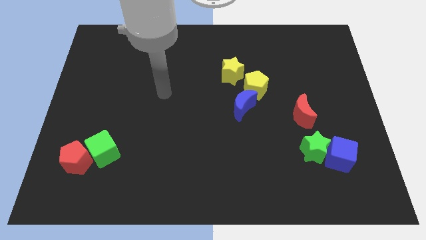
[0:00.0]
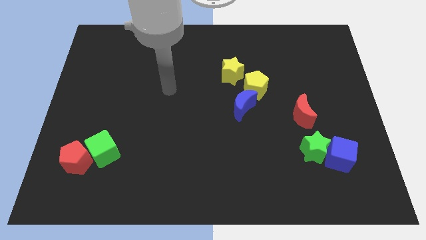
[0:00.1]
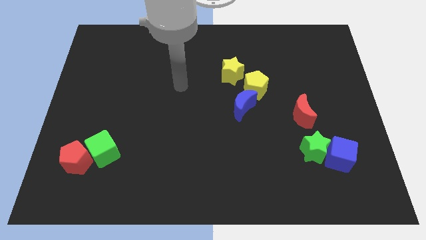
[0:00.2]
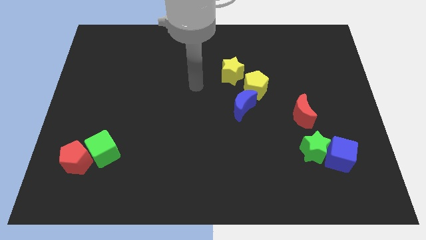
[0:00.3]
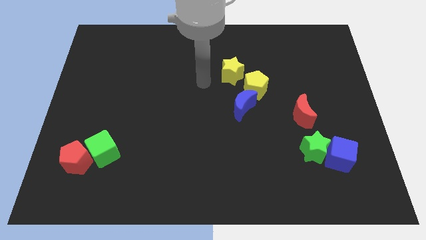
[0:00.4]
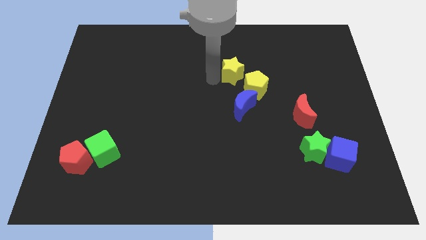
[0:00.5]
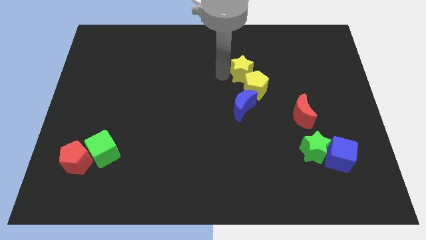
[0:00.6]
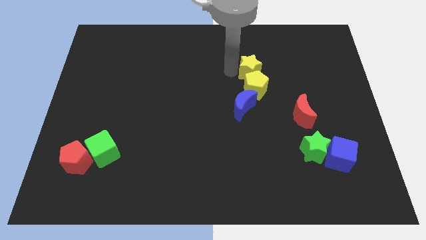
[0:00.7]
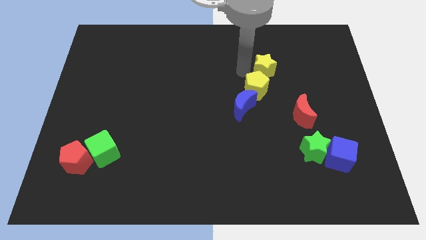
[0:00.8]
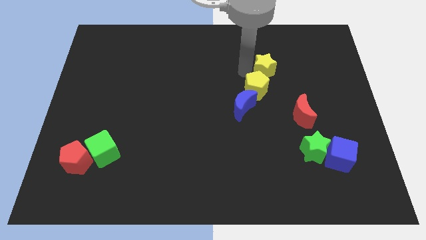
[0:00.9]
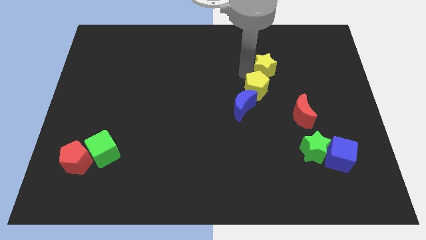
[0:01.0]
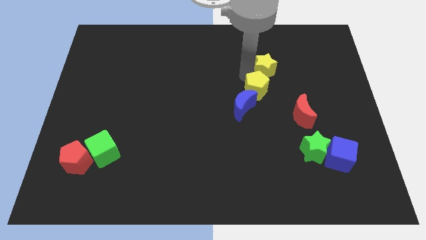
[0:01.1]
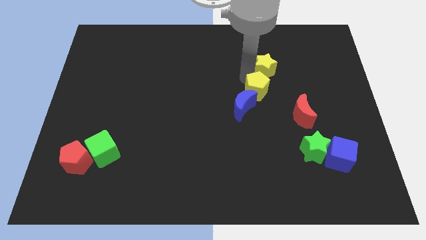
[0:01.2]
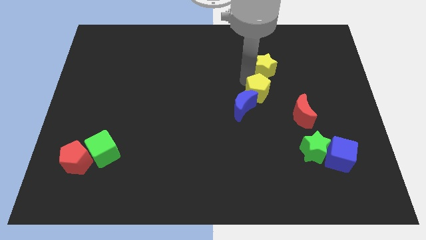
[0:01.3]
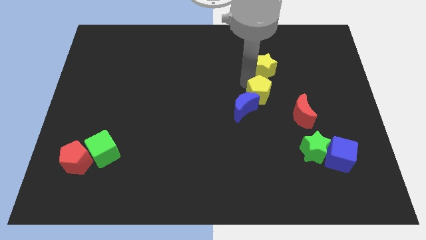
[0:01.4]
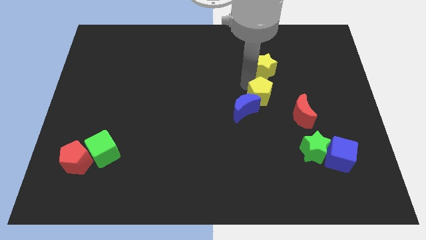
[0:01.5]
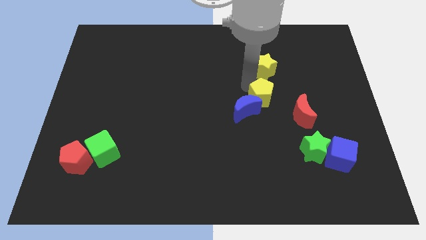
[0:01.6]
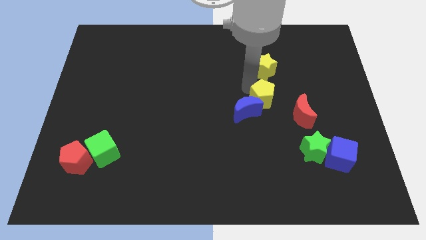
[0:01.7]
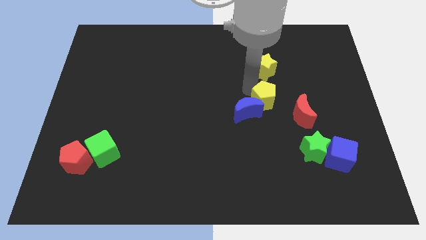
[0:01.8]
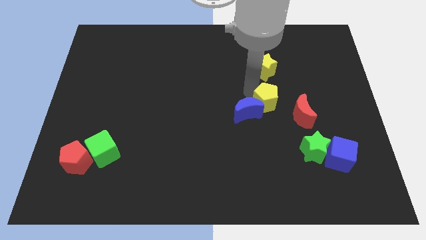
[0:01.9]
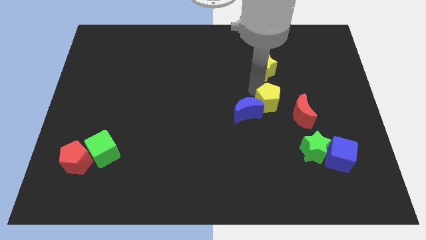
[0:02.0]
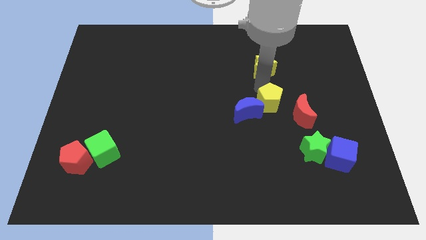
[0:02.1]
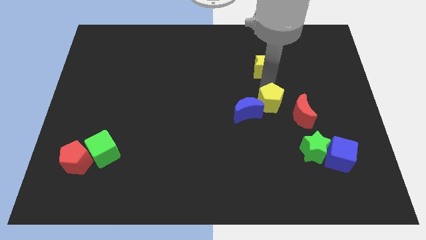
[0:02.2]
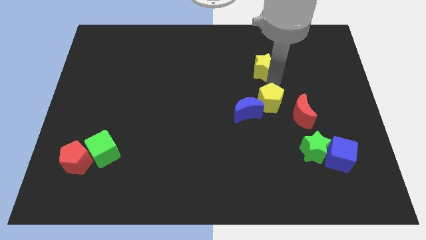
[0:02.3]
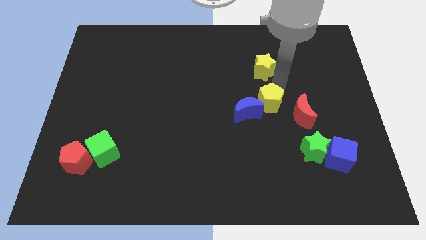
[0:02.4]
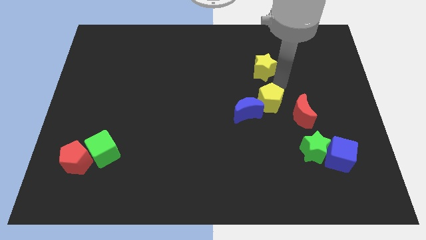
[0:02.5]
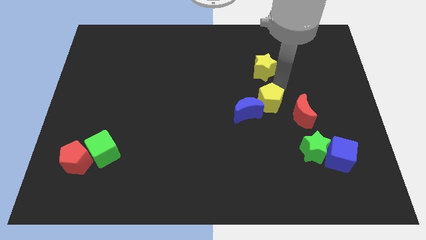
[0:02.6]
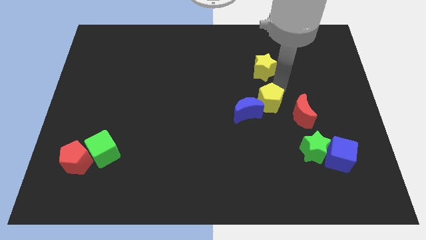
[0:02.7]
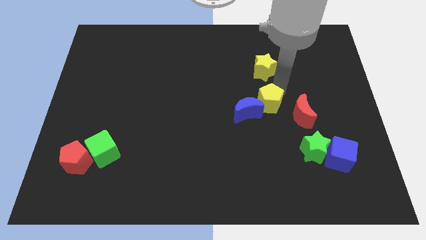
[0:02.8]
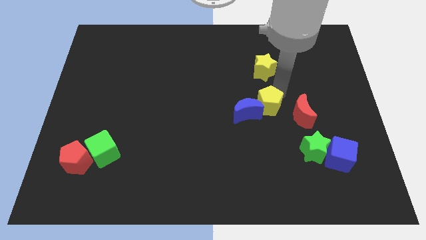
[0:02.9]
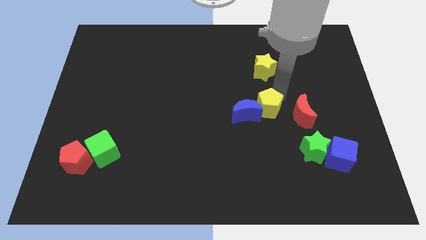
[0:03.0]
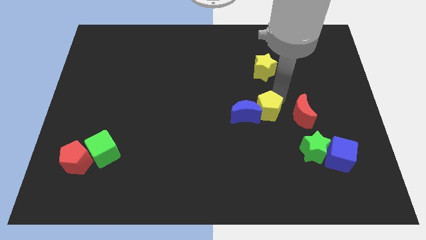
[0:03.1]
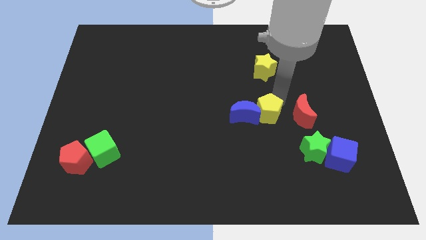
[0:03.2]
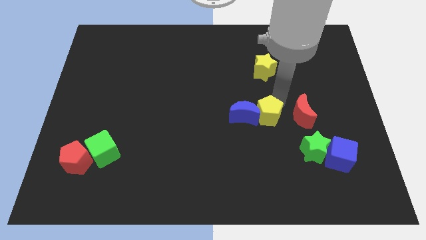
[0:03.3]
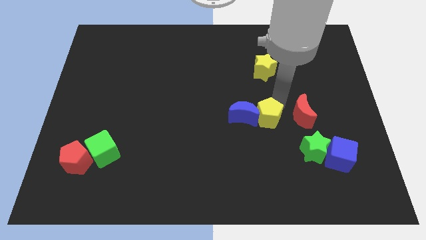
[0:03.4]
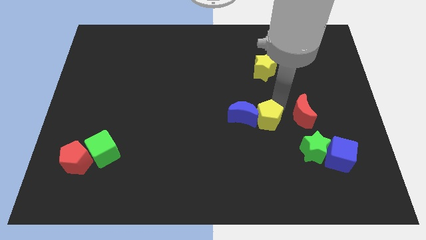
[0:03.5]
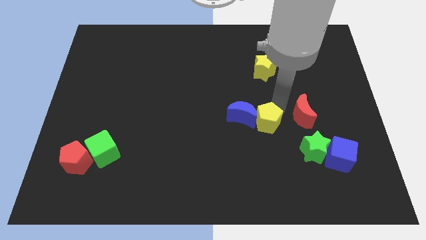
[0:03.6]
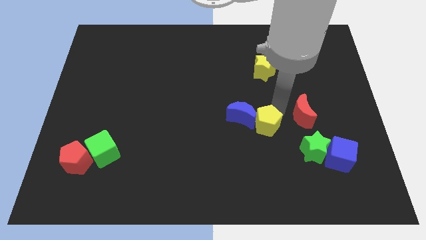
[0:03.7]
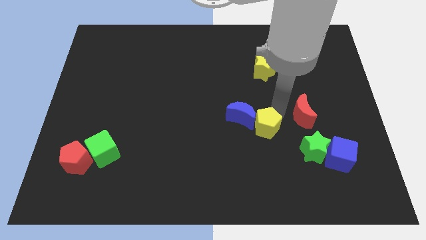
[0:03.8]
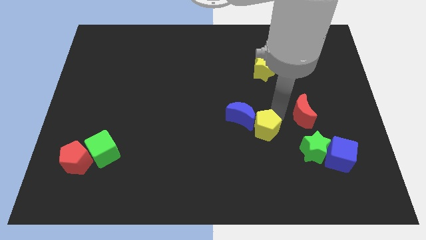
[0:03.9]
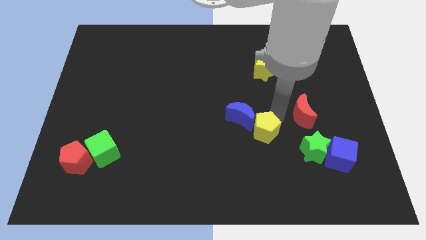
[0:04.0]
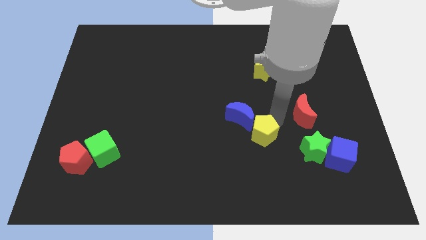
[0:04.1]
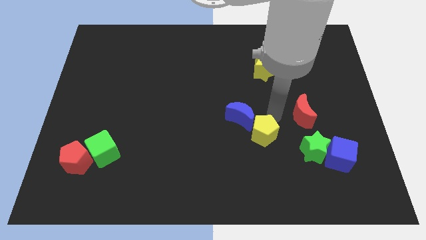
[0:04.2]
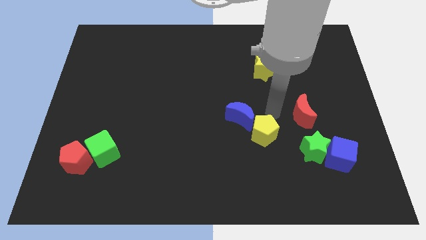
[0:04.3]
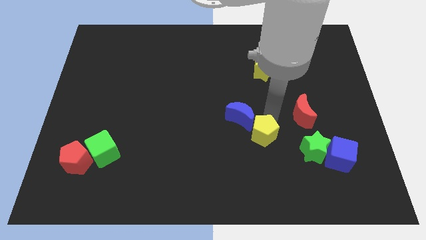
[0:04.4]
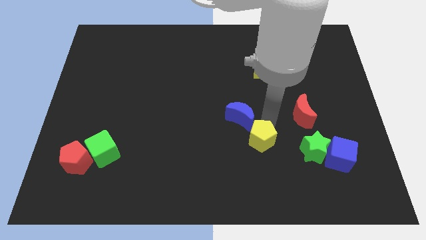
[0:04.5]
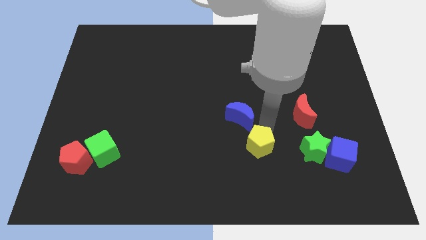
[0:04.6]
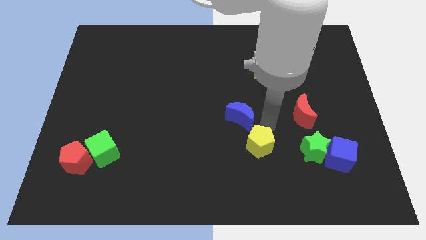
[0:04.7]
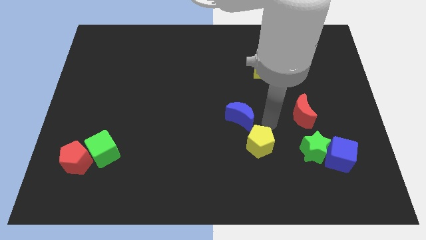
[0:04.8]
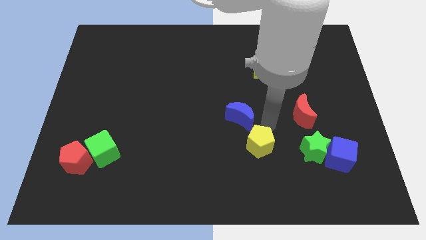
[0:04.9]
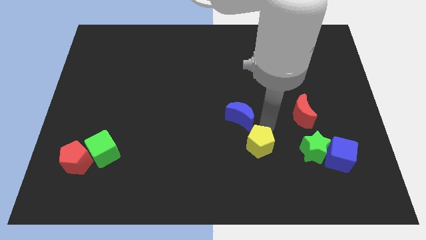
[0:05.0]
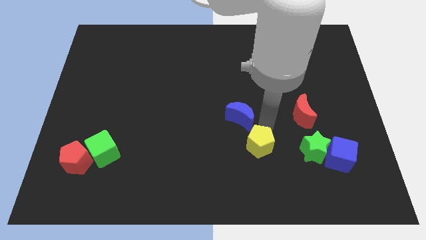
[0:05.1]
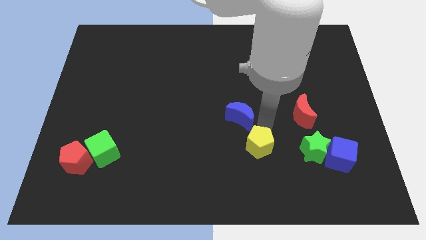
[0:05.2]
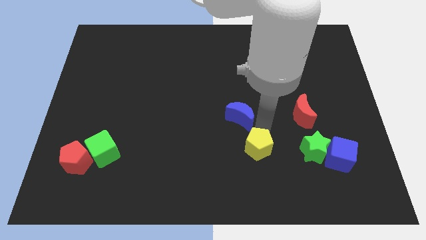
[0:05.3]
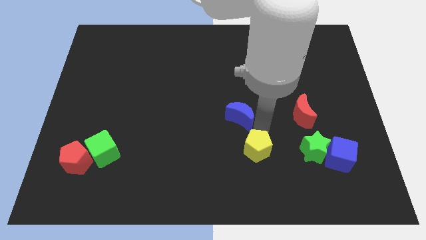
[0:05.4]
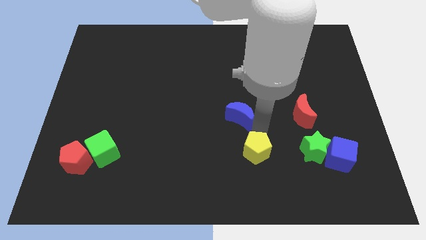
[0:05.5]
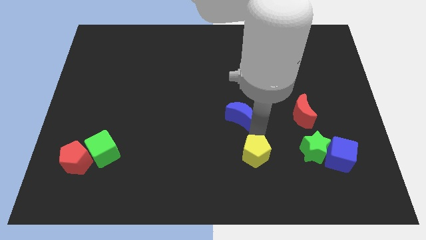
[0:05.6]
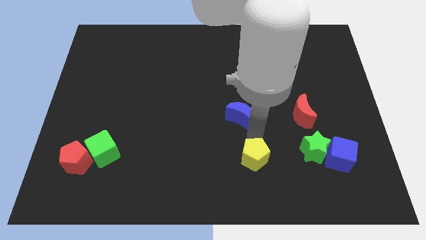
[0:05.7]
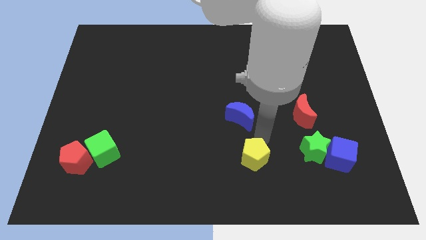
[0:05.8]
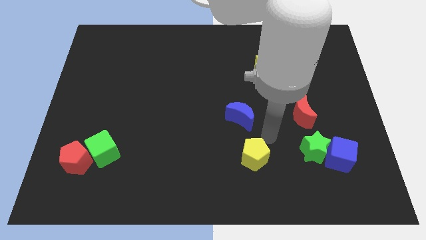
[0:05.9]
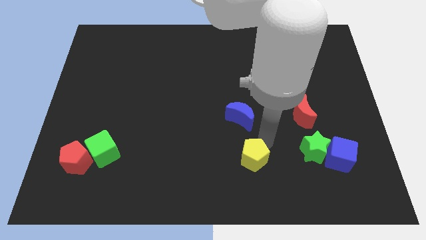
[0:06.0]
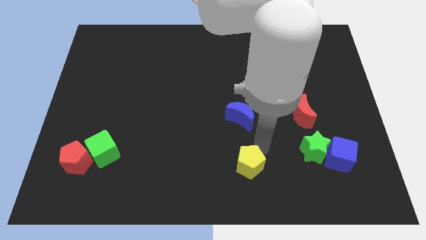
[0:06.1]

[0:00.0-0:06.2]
move the yellow pentagon to the bottom

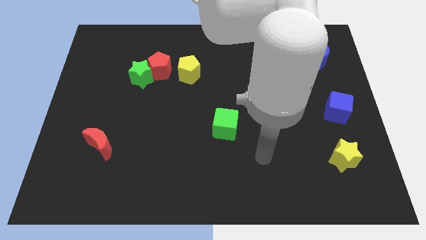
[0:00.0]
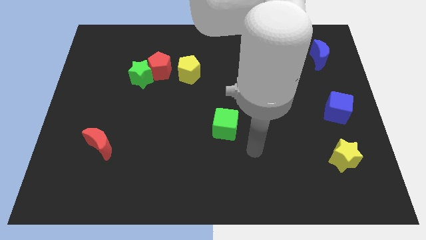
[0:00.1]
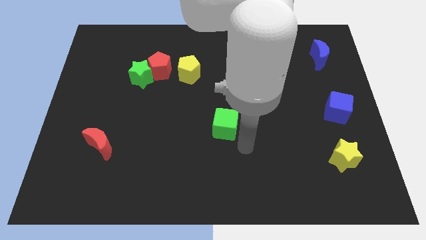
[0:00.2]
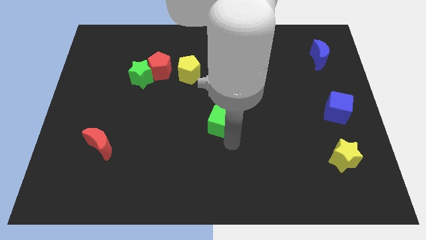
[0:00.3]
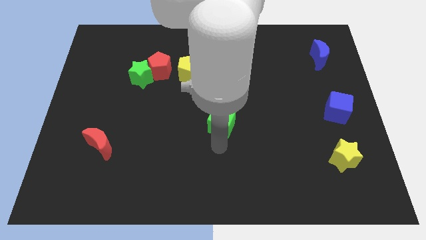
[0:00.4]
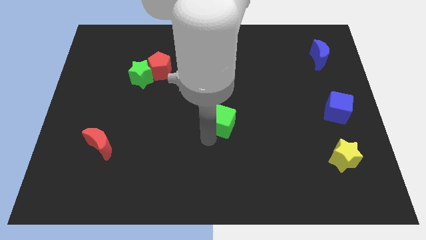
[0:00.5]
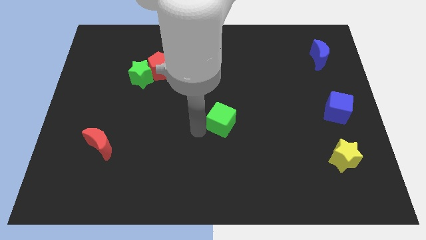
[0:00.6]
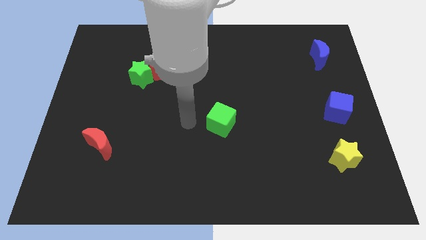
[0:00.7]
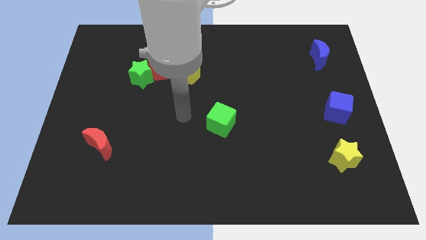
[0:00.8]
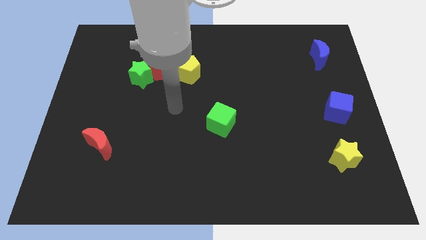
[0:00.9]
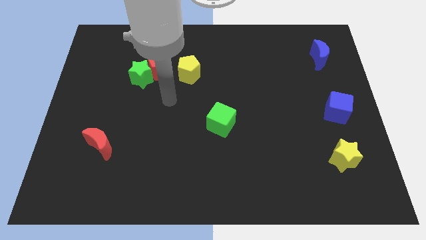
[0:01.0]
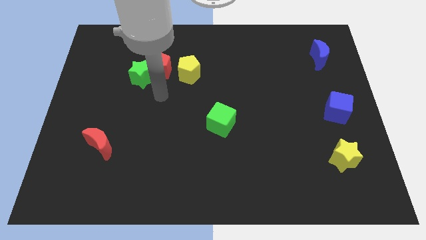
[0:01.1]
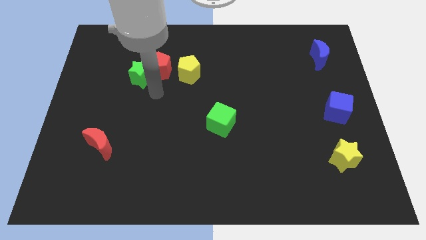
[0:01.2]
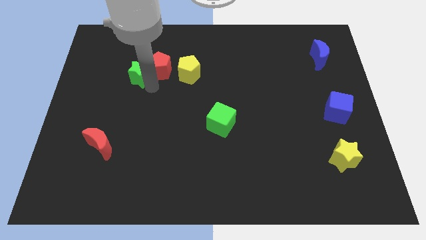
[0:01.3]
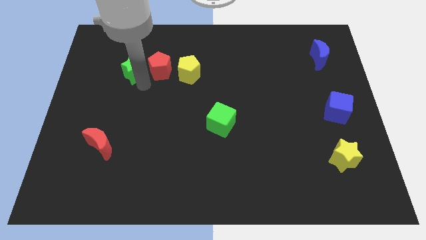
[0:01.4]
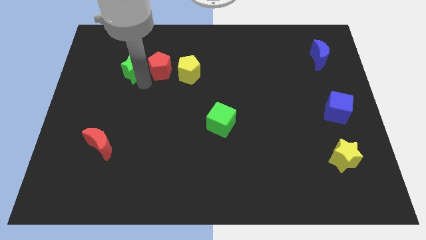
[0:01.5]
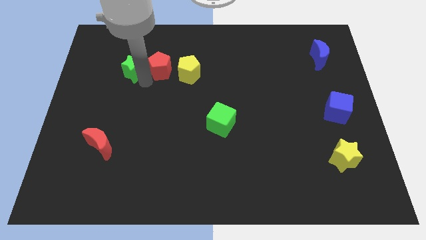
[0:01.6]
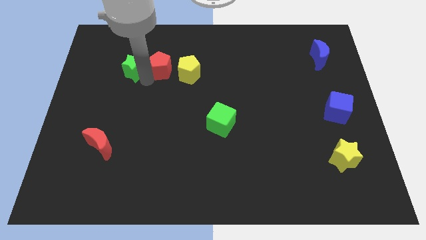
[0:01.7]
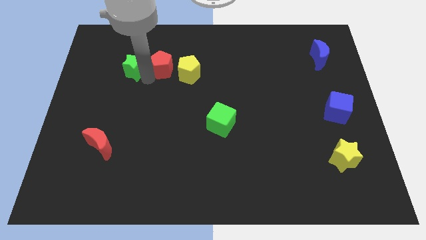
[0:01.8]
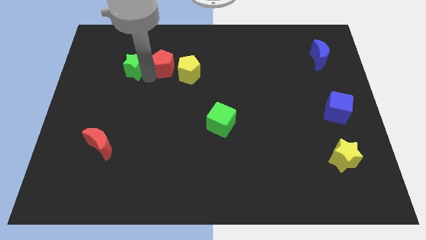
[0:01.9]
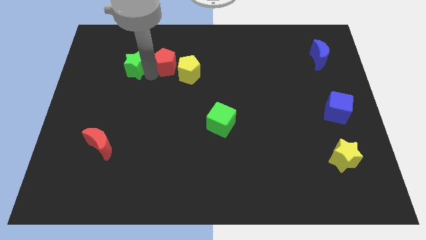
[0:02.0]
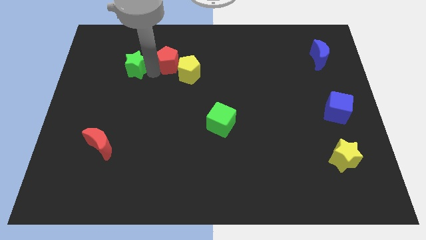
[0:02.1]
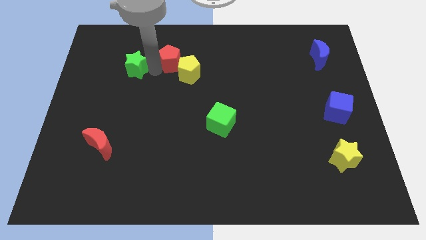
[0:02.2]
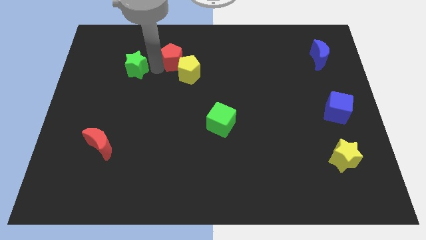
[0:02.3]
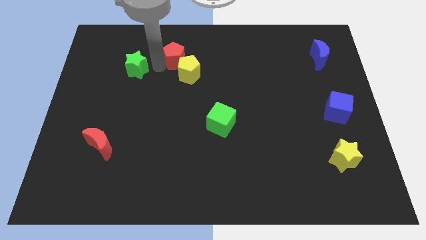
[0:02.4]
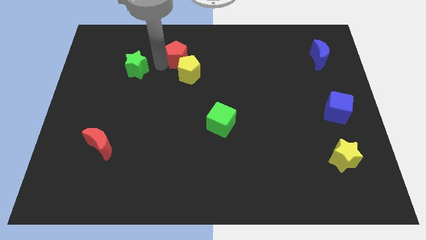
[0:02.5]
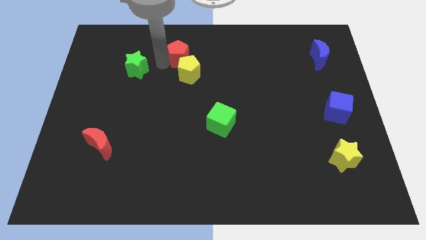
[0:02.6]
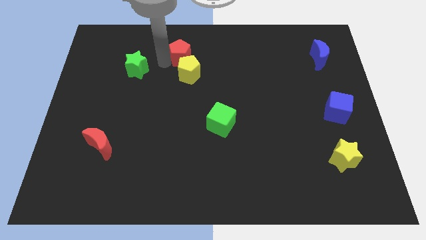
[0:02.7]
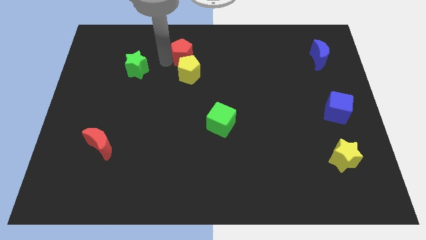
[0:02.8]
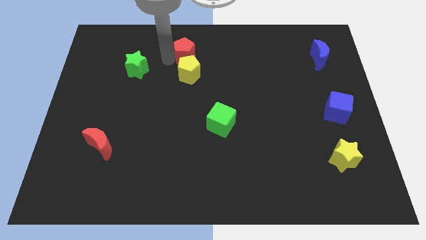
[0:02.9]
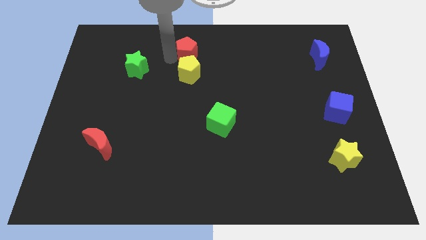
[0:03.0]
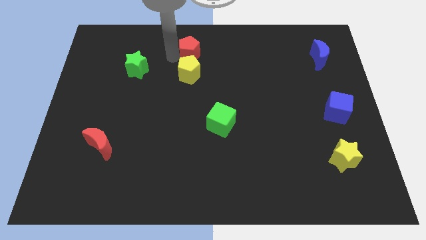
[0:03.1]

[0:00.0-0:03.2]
slide the red pentagon to the top
